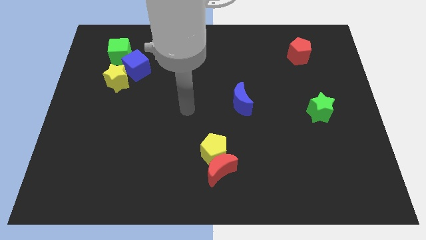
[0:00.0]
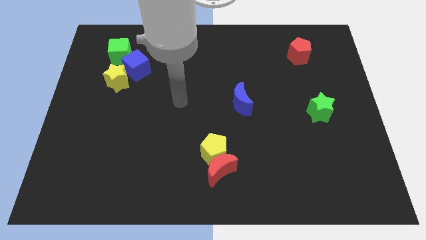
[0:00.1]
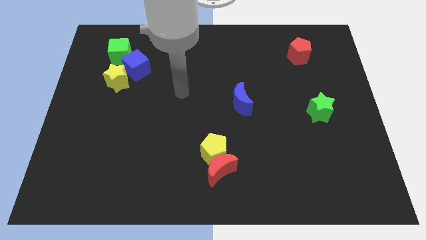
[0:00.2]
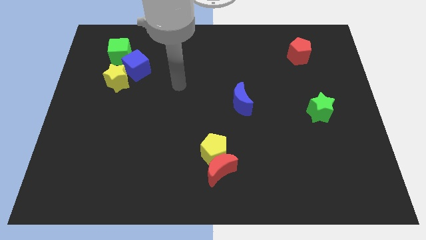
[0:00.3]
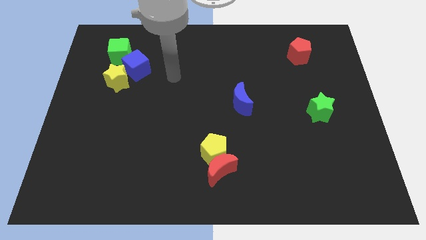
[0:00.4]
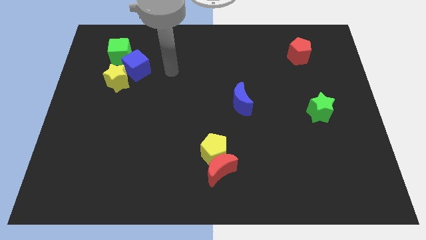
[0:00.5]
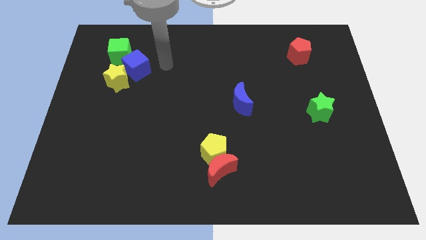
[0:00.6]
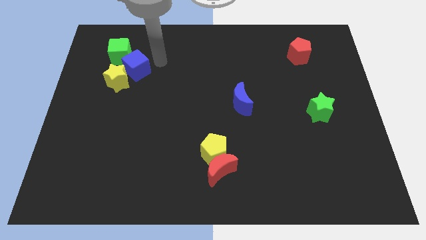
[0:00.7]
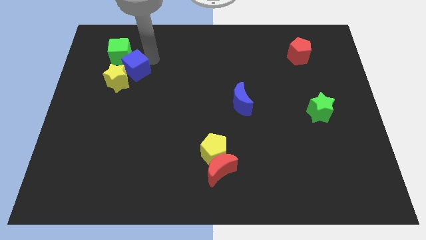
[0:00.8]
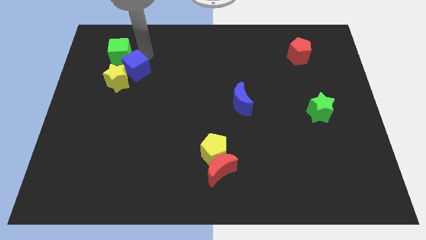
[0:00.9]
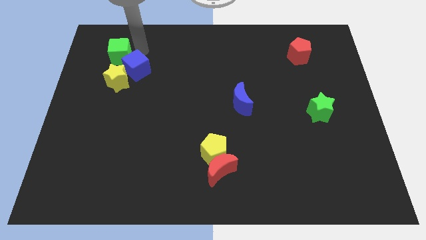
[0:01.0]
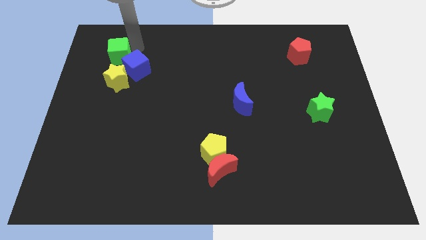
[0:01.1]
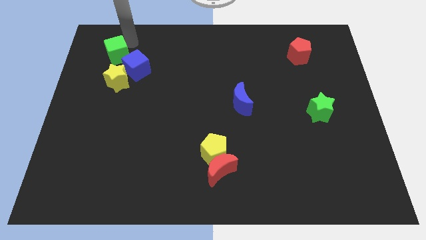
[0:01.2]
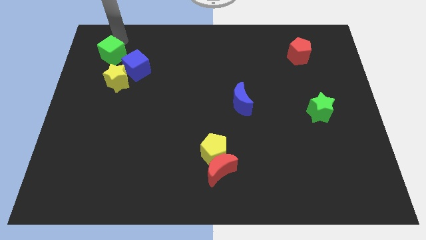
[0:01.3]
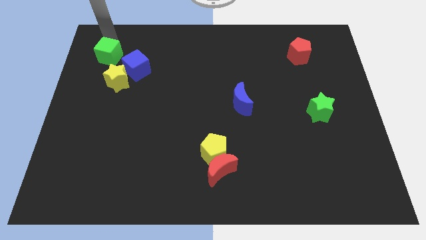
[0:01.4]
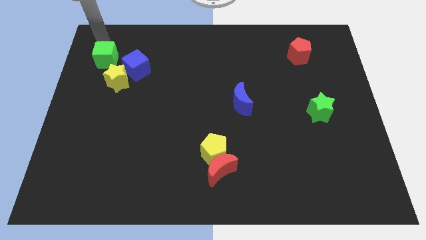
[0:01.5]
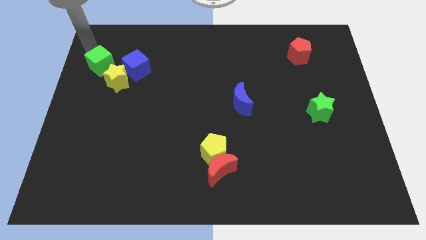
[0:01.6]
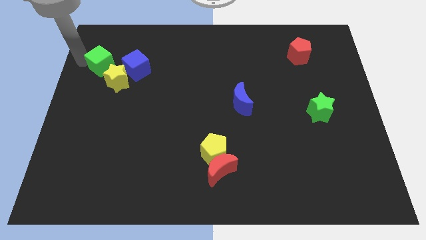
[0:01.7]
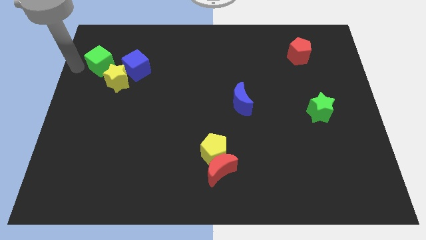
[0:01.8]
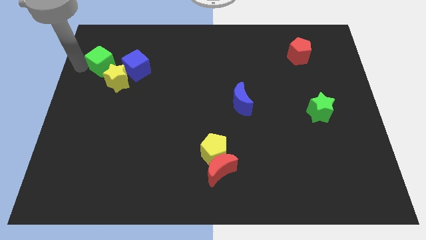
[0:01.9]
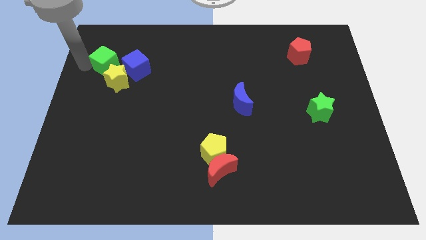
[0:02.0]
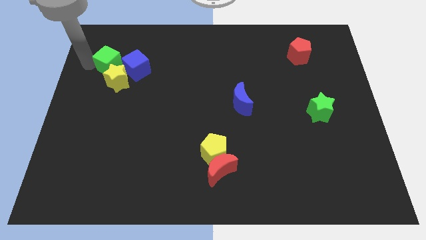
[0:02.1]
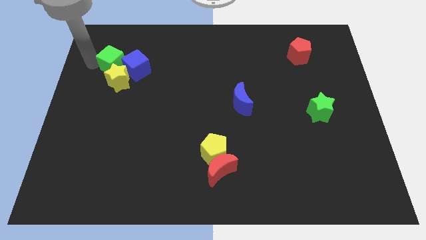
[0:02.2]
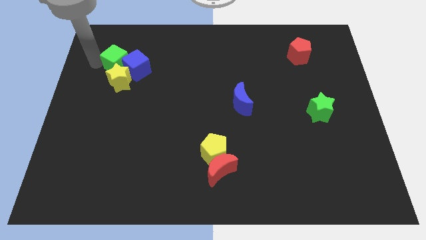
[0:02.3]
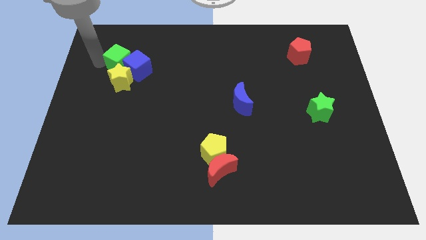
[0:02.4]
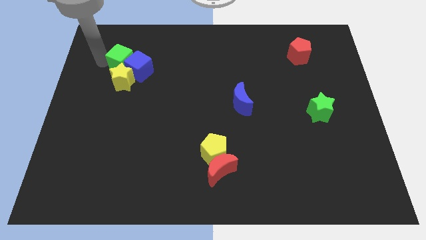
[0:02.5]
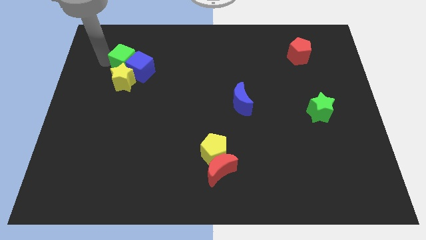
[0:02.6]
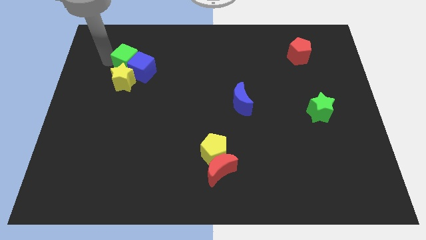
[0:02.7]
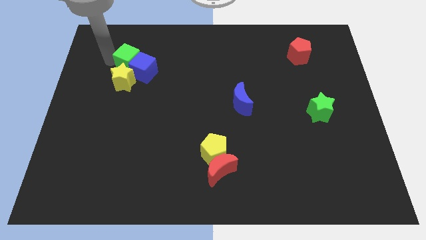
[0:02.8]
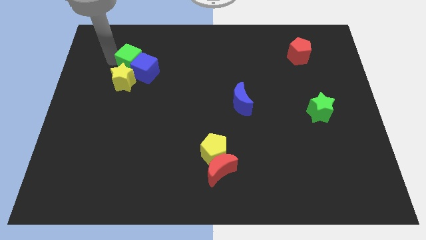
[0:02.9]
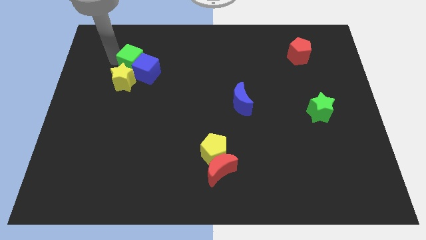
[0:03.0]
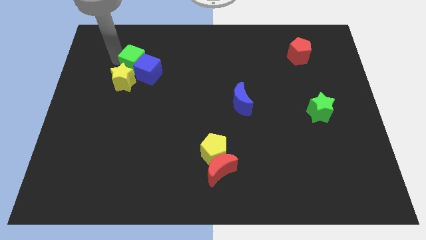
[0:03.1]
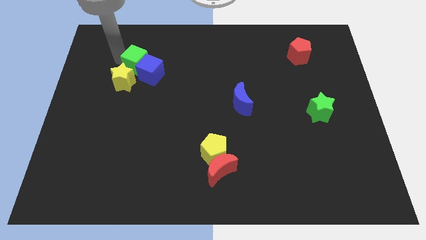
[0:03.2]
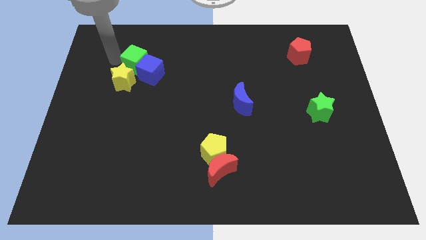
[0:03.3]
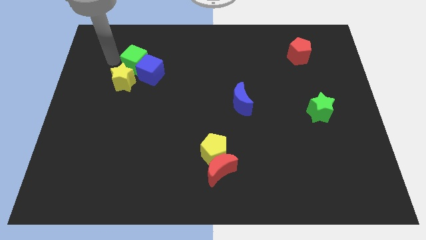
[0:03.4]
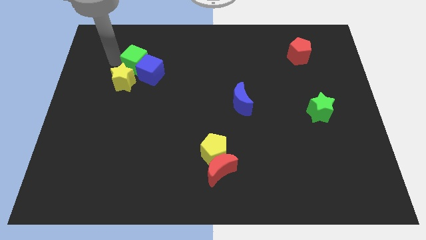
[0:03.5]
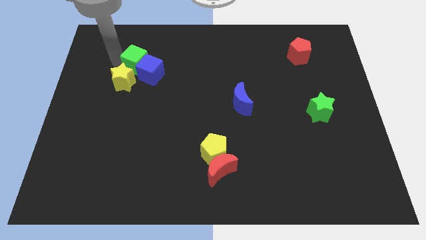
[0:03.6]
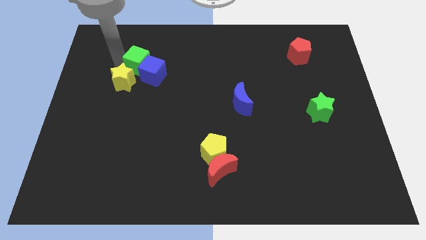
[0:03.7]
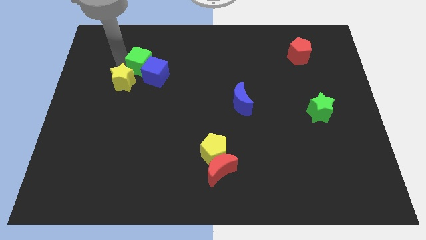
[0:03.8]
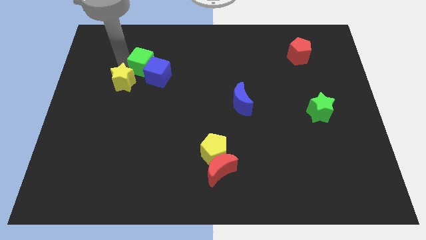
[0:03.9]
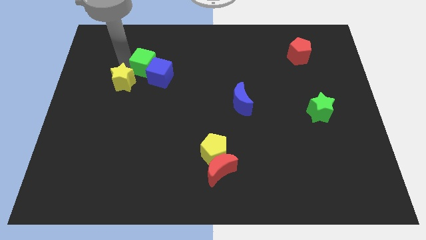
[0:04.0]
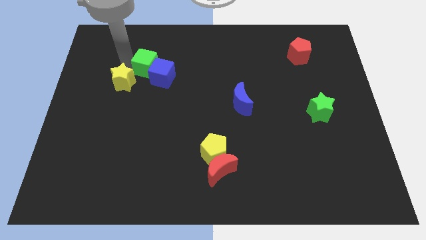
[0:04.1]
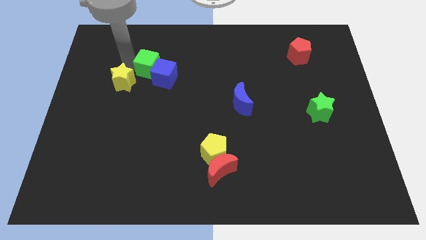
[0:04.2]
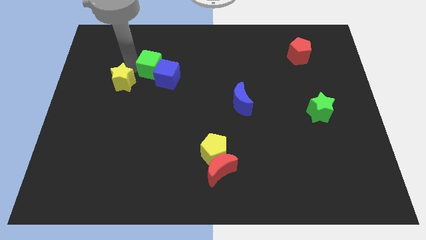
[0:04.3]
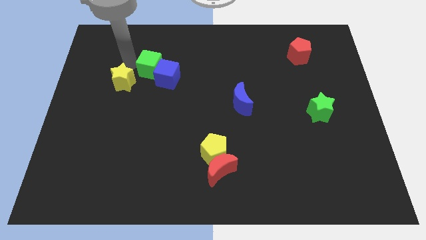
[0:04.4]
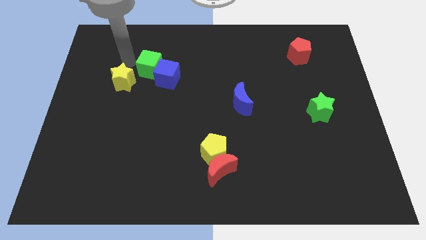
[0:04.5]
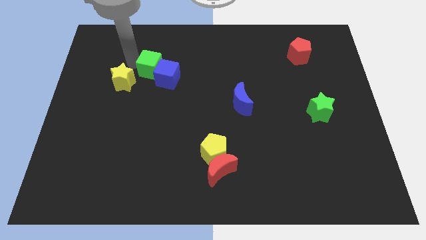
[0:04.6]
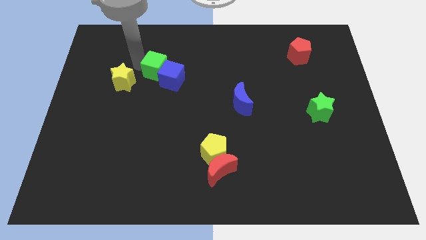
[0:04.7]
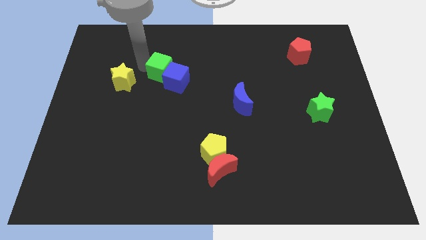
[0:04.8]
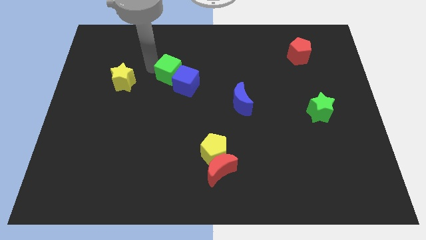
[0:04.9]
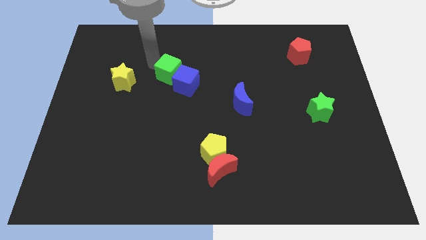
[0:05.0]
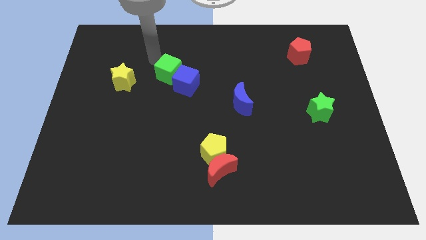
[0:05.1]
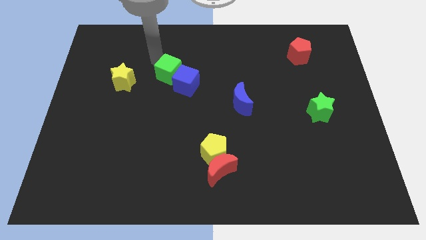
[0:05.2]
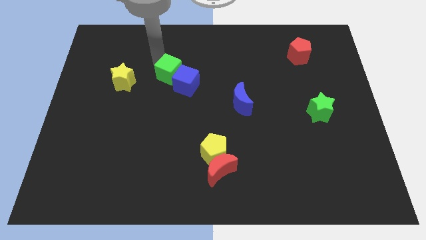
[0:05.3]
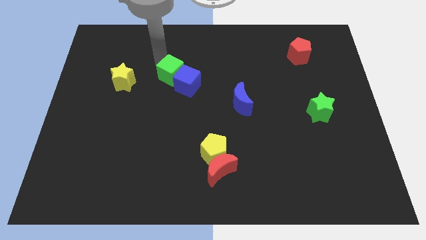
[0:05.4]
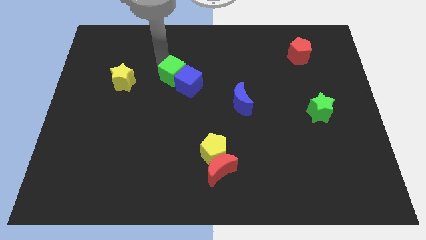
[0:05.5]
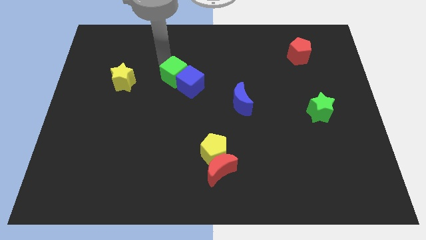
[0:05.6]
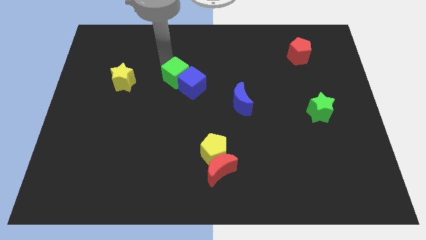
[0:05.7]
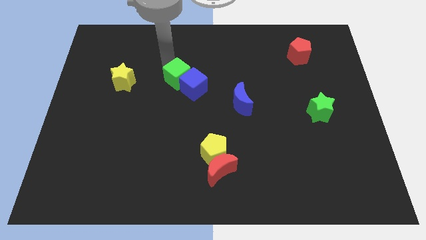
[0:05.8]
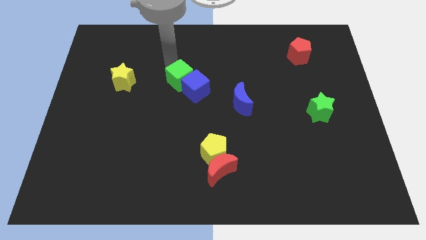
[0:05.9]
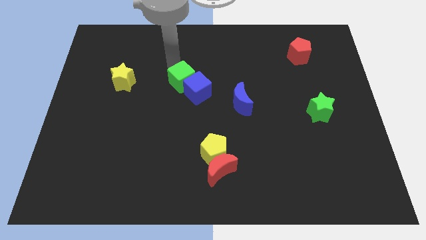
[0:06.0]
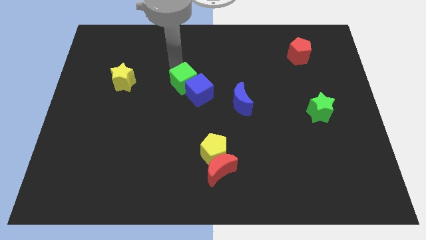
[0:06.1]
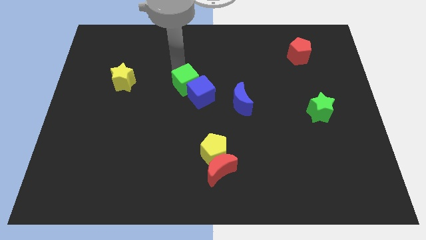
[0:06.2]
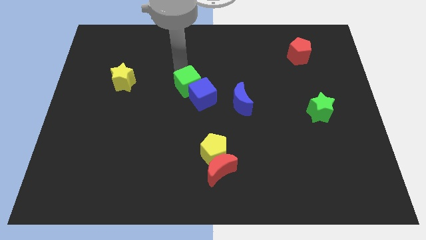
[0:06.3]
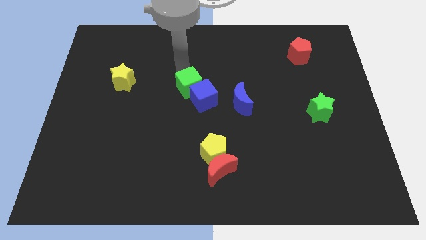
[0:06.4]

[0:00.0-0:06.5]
slide the green cube down and right diagonally

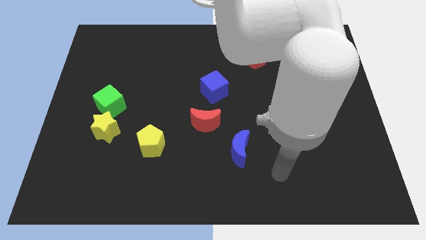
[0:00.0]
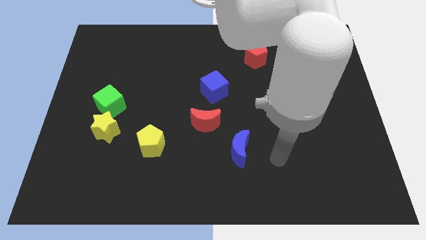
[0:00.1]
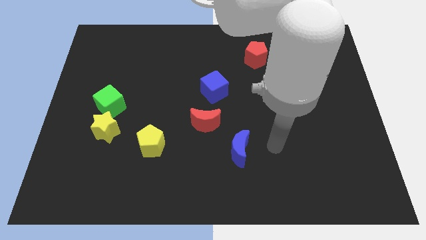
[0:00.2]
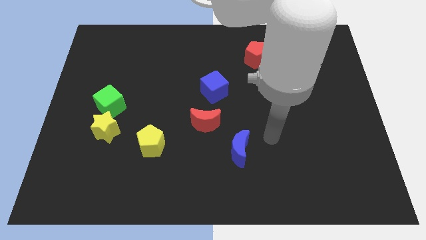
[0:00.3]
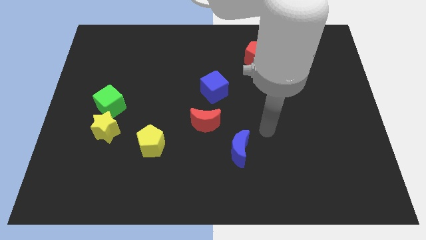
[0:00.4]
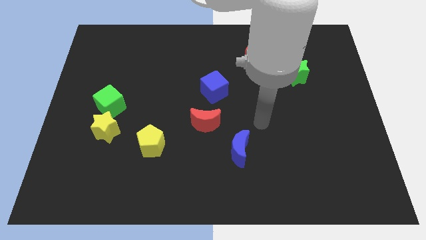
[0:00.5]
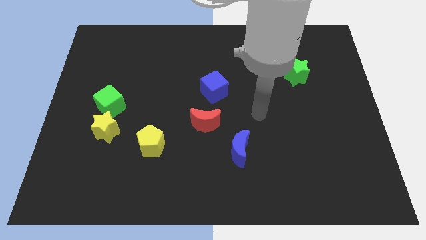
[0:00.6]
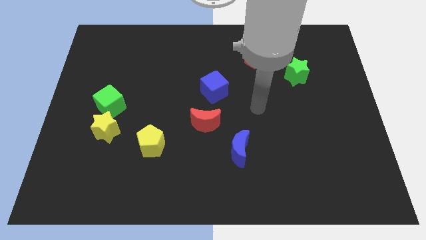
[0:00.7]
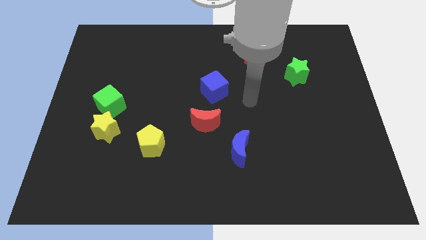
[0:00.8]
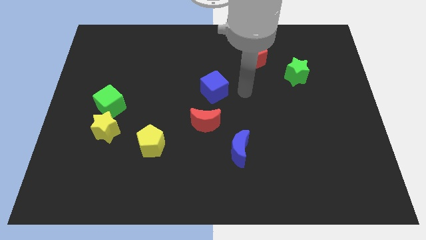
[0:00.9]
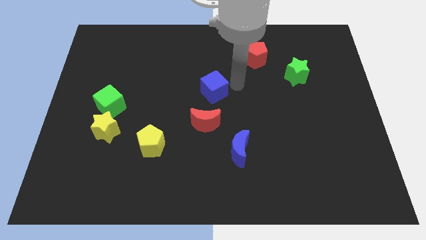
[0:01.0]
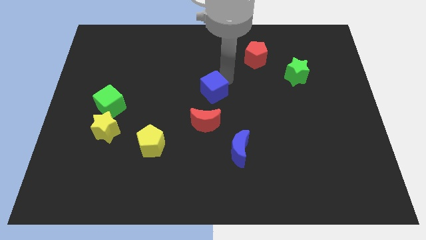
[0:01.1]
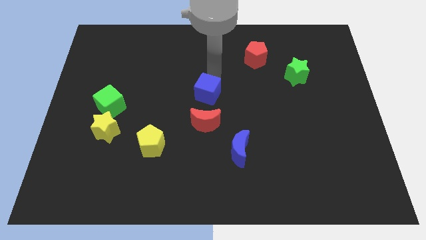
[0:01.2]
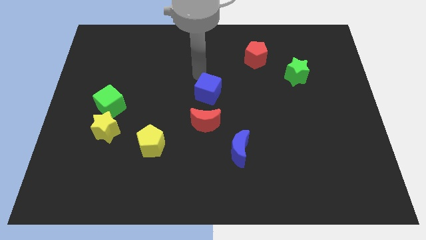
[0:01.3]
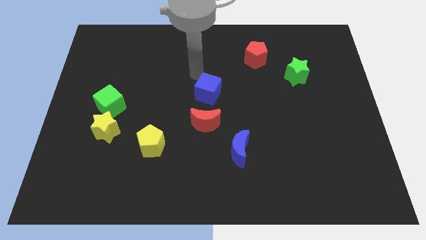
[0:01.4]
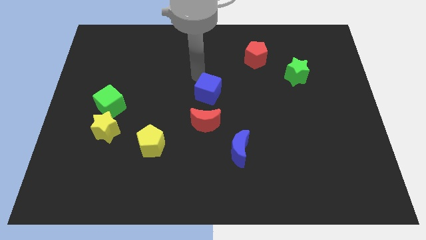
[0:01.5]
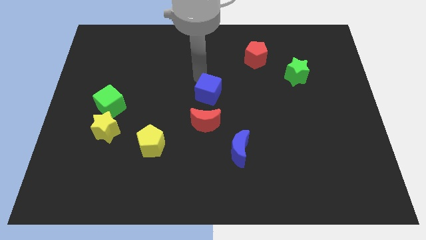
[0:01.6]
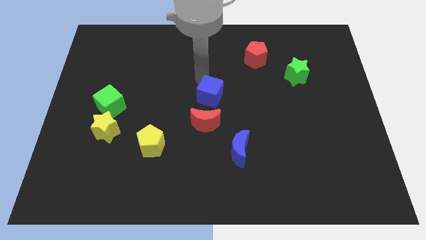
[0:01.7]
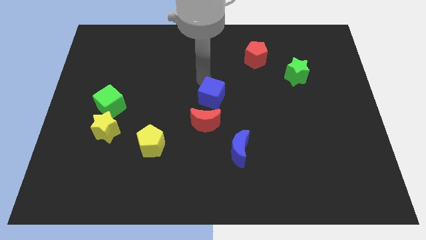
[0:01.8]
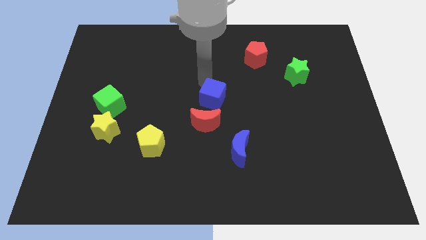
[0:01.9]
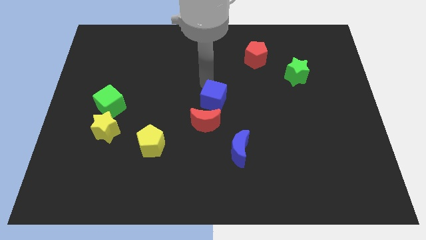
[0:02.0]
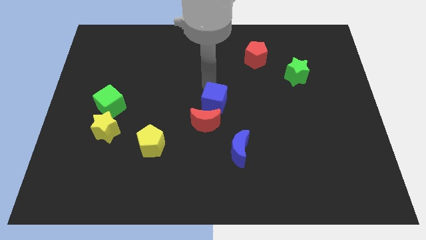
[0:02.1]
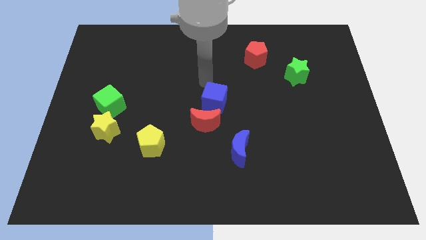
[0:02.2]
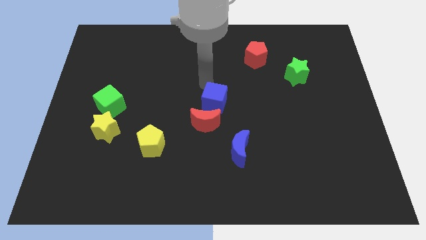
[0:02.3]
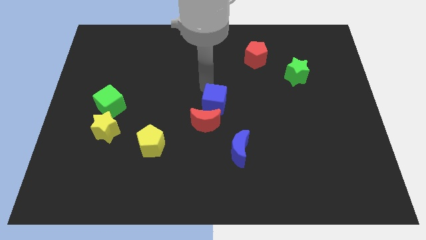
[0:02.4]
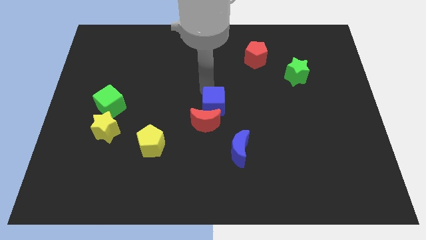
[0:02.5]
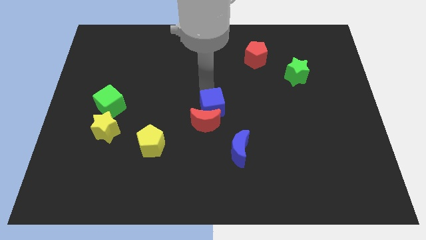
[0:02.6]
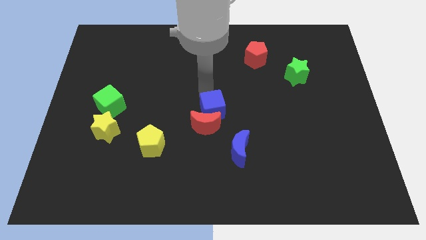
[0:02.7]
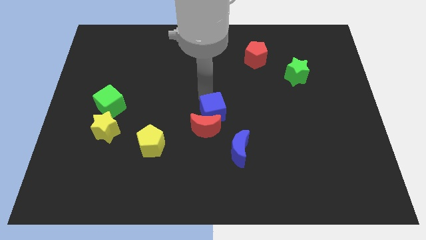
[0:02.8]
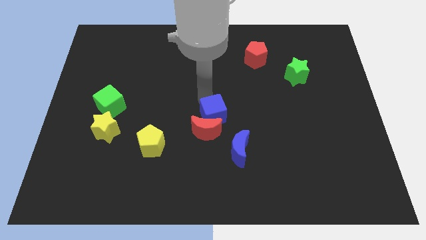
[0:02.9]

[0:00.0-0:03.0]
push the blue cube slightly down
